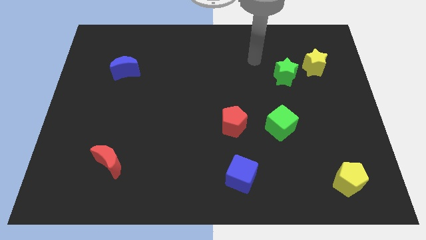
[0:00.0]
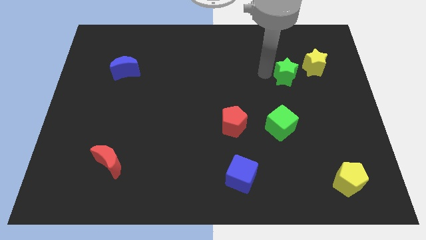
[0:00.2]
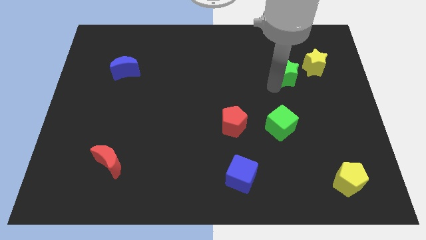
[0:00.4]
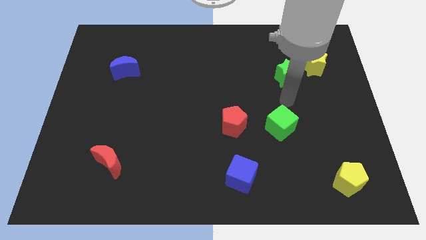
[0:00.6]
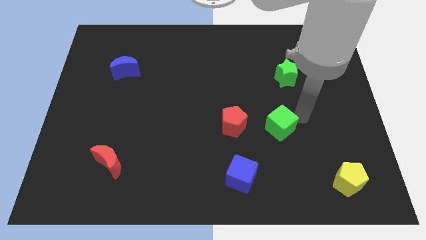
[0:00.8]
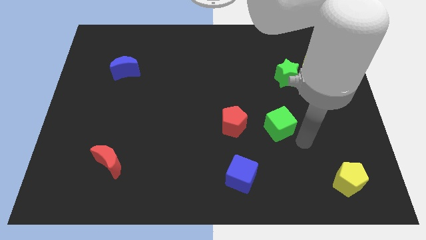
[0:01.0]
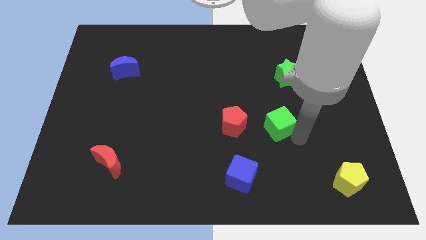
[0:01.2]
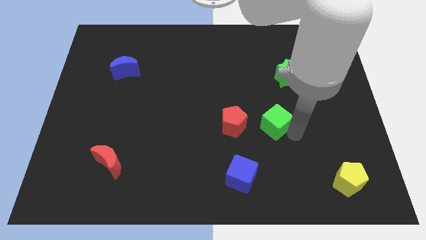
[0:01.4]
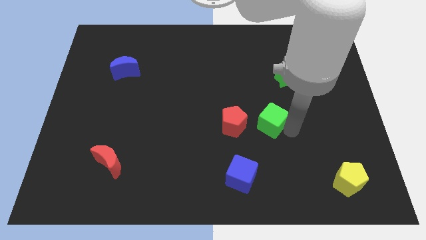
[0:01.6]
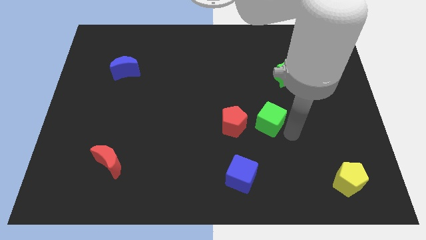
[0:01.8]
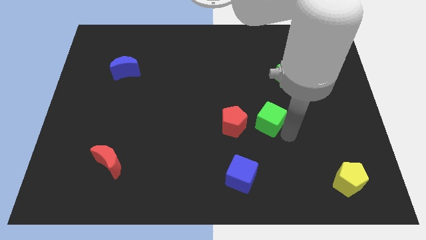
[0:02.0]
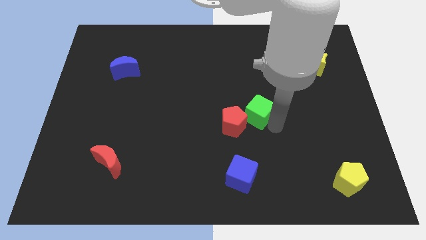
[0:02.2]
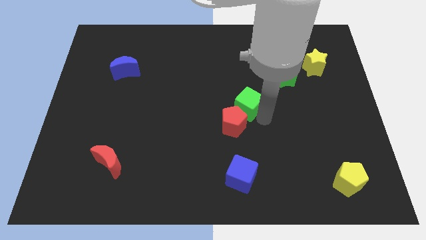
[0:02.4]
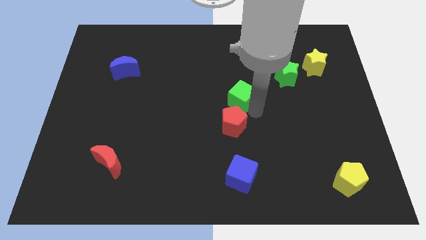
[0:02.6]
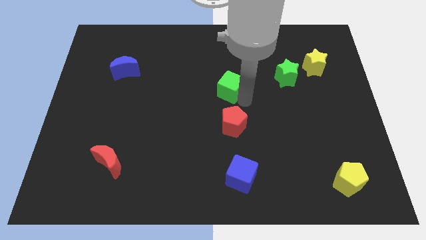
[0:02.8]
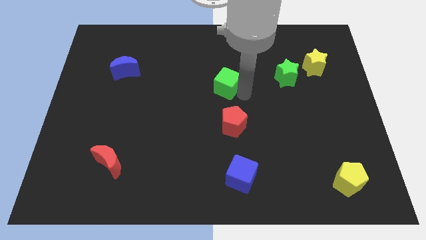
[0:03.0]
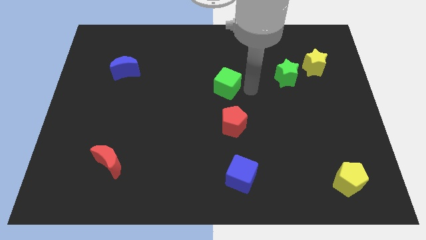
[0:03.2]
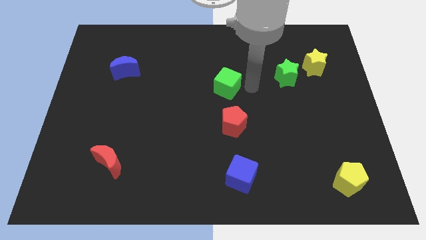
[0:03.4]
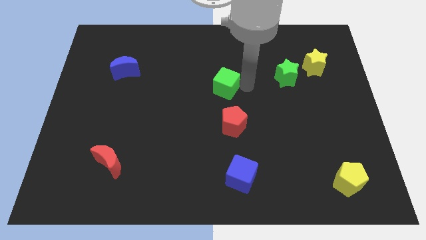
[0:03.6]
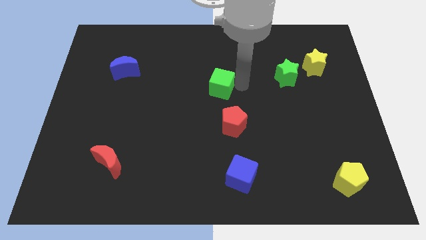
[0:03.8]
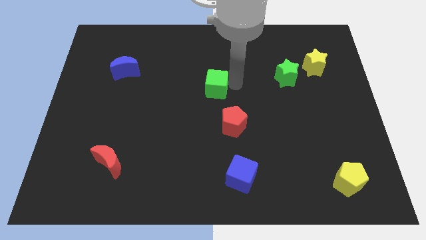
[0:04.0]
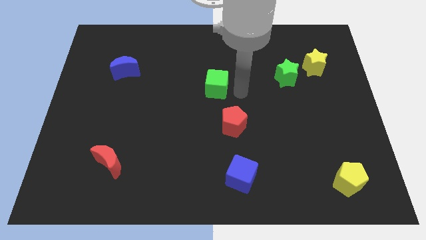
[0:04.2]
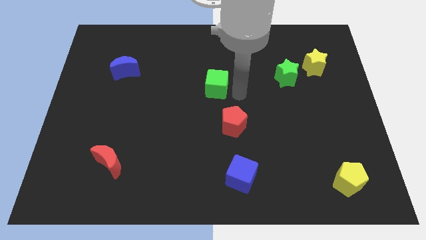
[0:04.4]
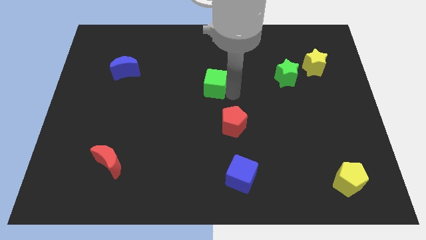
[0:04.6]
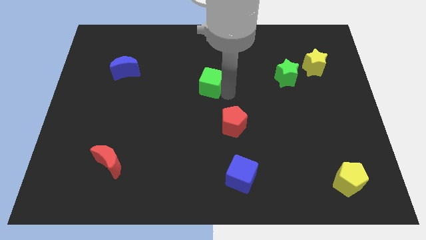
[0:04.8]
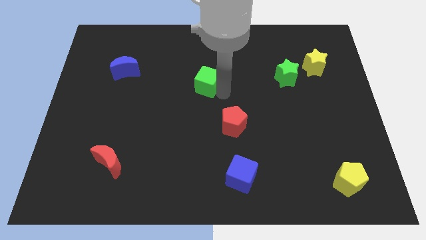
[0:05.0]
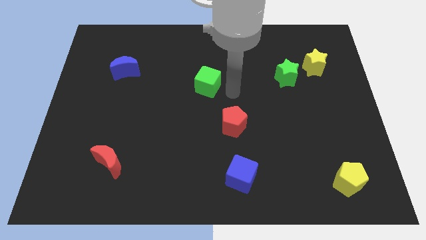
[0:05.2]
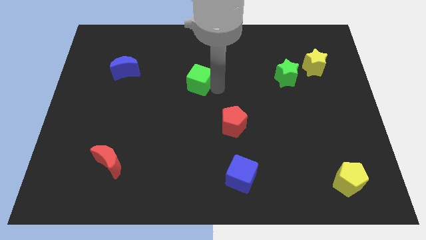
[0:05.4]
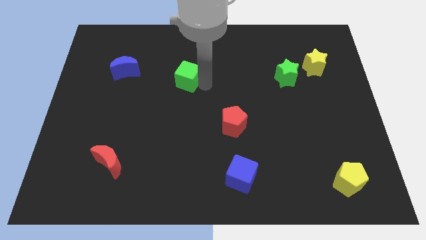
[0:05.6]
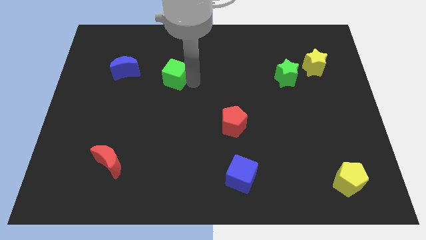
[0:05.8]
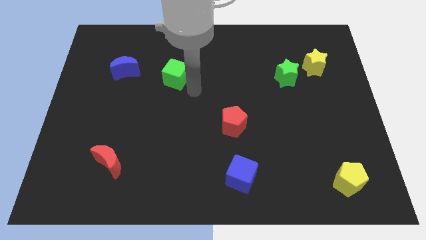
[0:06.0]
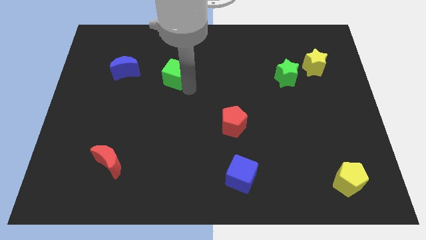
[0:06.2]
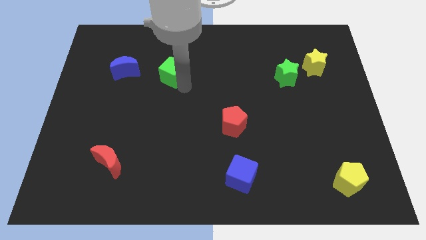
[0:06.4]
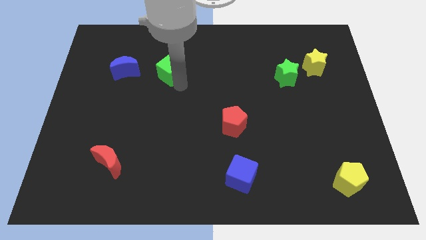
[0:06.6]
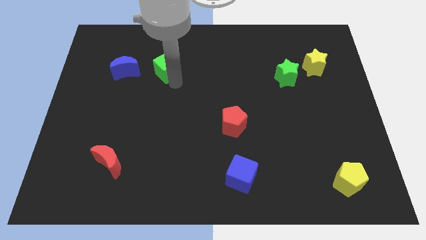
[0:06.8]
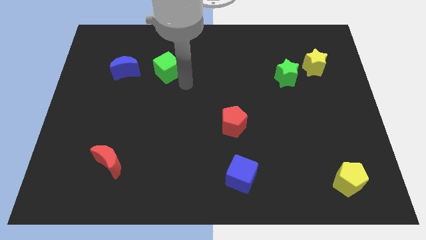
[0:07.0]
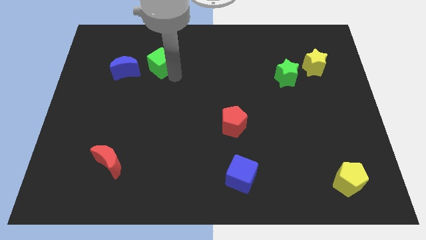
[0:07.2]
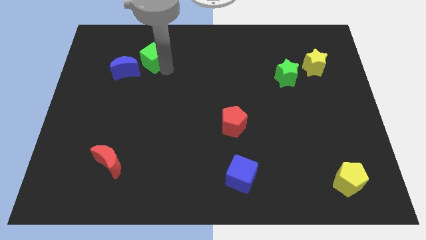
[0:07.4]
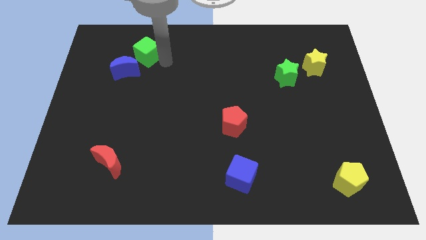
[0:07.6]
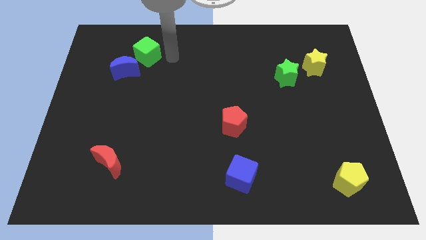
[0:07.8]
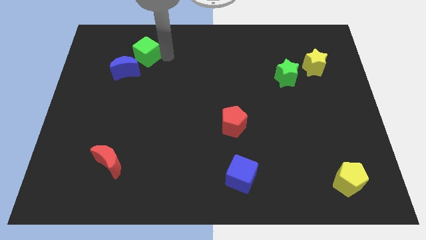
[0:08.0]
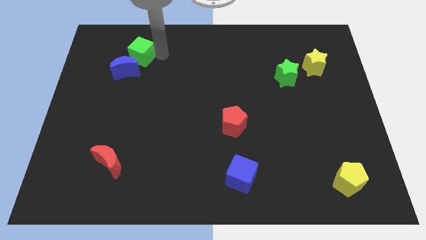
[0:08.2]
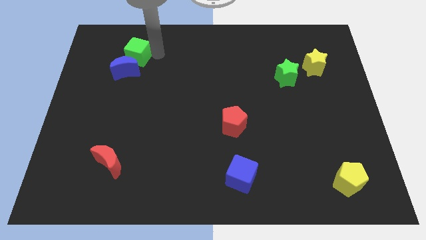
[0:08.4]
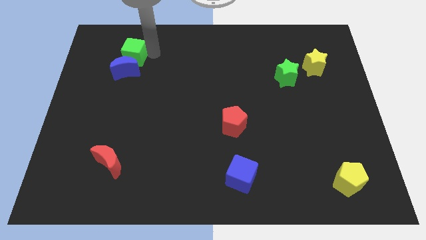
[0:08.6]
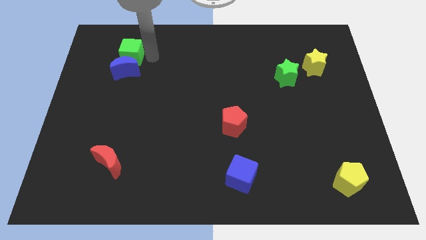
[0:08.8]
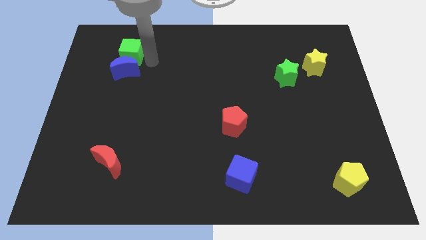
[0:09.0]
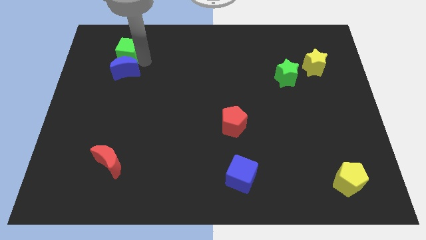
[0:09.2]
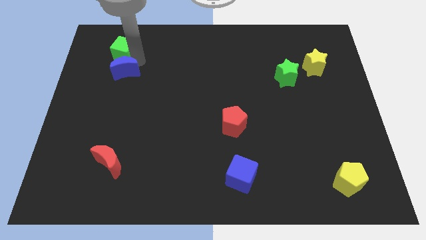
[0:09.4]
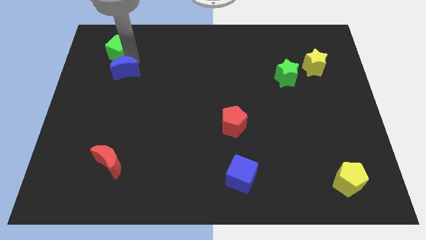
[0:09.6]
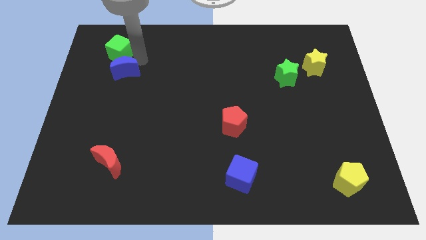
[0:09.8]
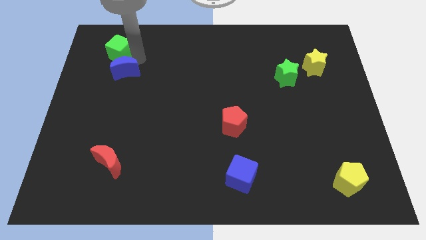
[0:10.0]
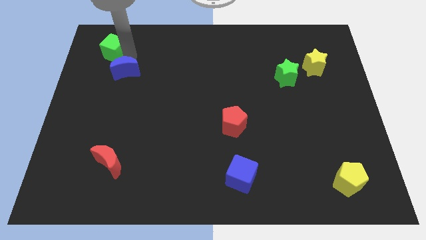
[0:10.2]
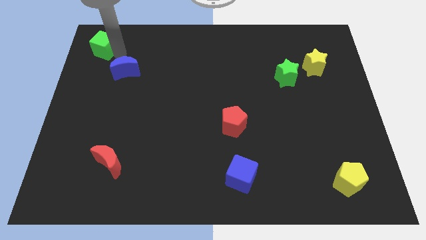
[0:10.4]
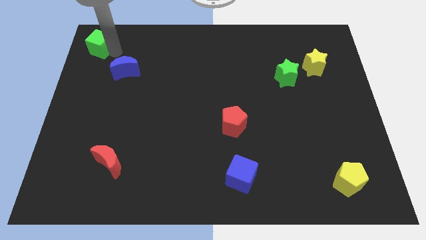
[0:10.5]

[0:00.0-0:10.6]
move the green cube to the top left of the board
